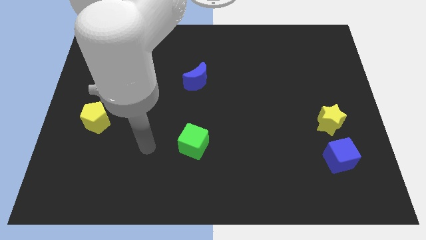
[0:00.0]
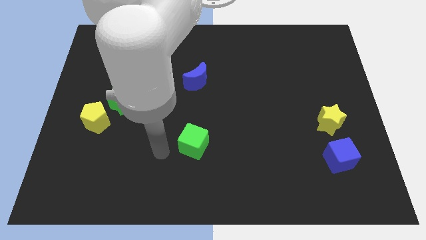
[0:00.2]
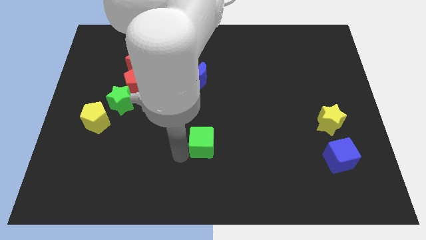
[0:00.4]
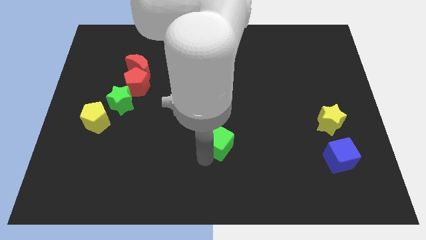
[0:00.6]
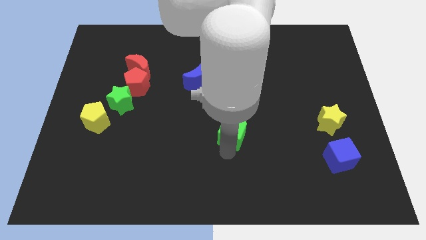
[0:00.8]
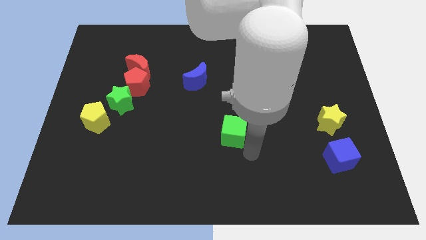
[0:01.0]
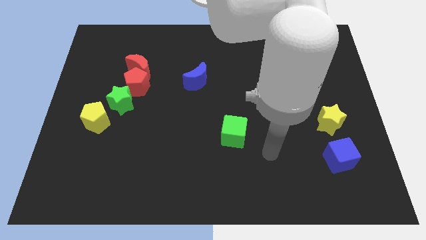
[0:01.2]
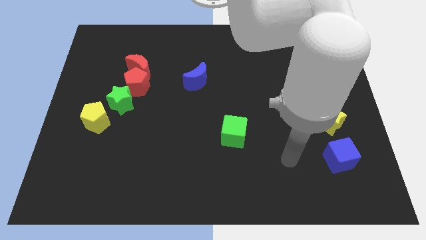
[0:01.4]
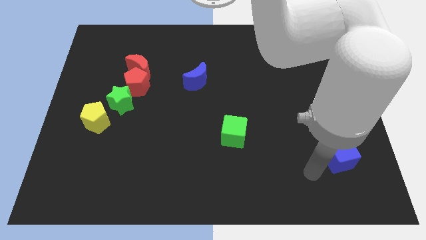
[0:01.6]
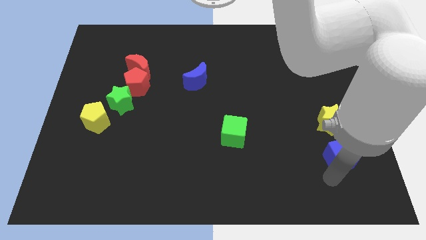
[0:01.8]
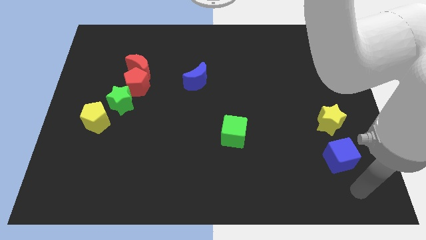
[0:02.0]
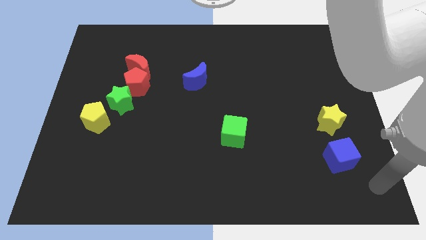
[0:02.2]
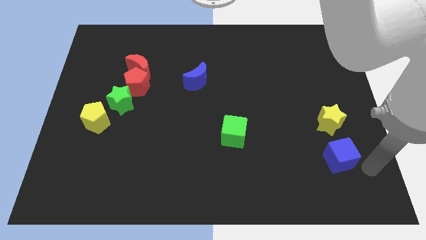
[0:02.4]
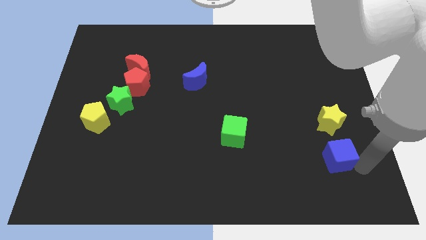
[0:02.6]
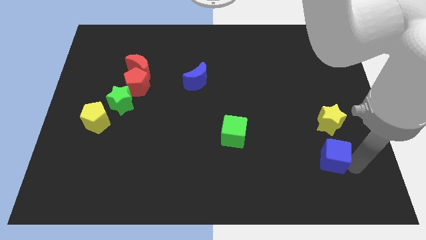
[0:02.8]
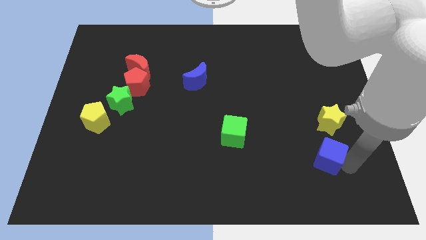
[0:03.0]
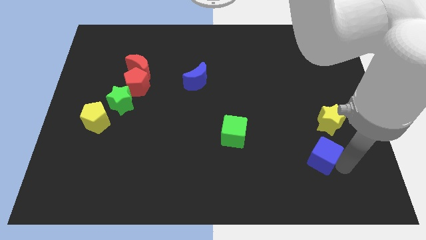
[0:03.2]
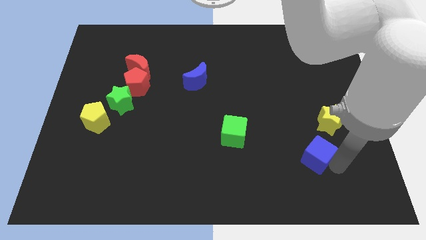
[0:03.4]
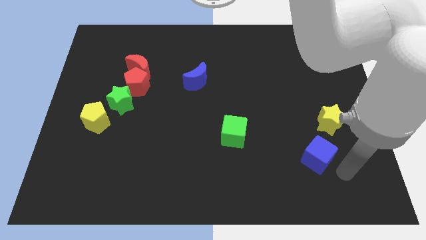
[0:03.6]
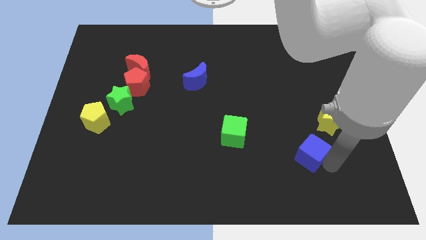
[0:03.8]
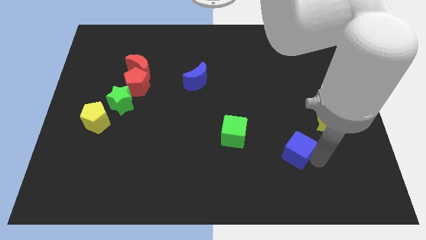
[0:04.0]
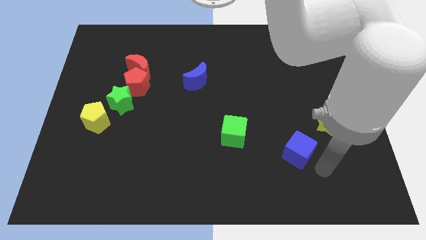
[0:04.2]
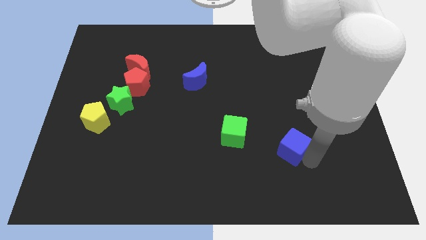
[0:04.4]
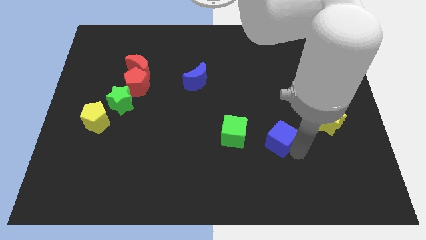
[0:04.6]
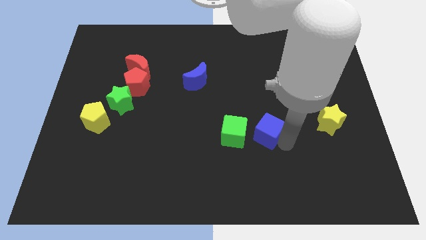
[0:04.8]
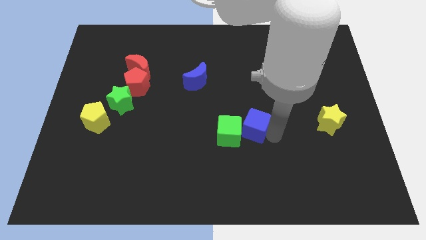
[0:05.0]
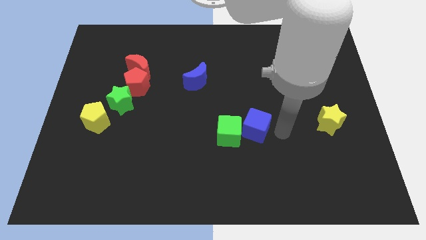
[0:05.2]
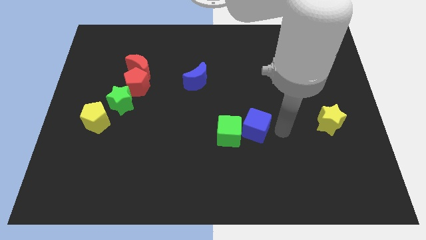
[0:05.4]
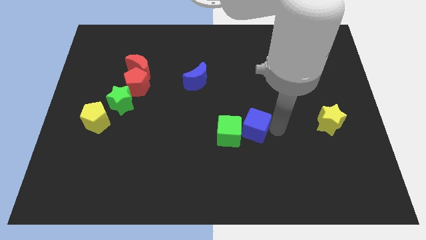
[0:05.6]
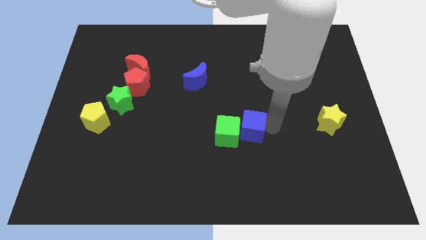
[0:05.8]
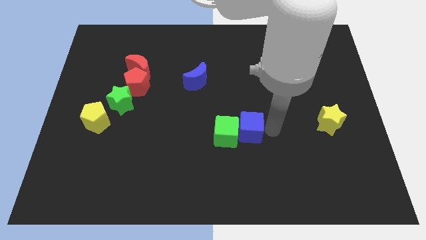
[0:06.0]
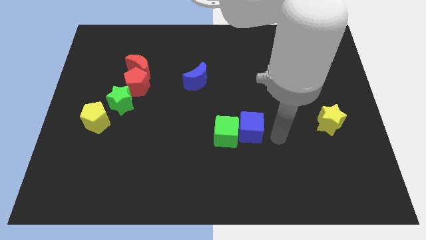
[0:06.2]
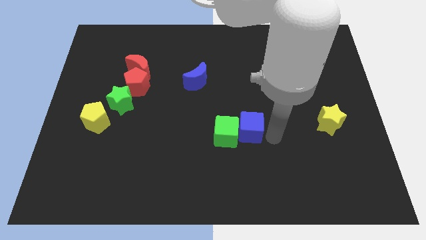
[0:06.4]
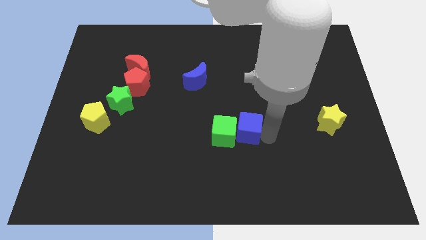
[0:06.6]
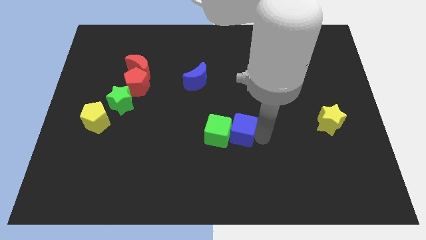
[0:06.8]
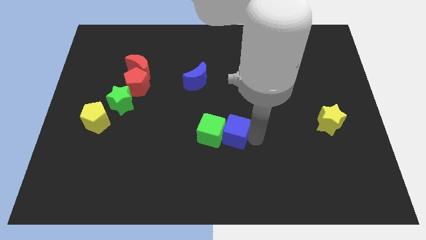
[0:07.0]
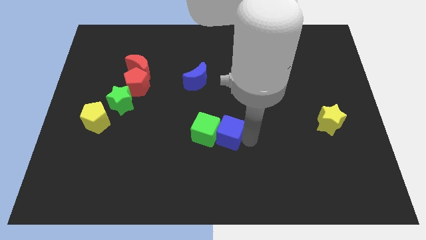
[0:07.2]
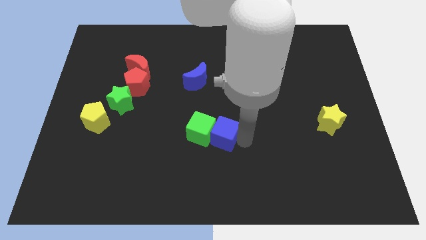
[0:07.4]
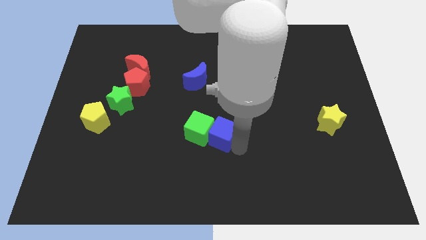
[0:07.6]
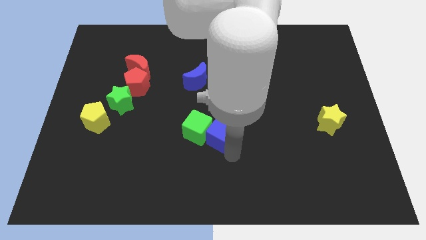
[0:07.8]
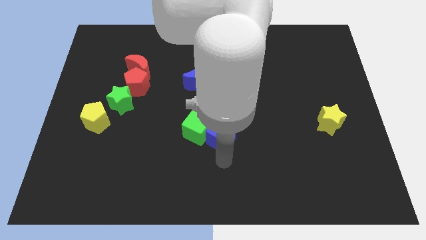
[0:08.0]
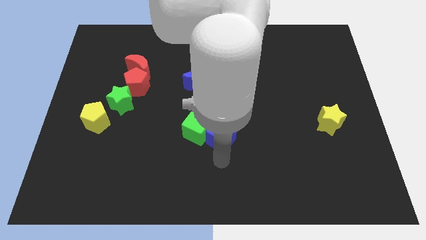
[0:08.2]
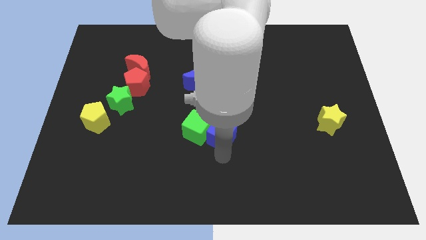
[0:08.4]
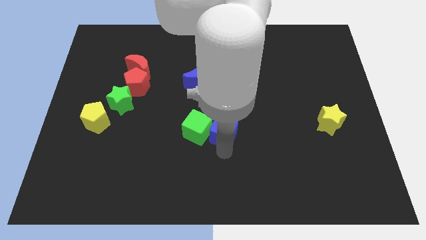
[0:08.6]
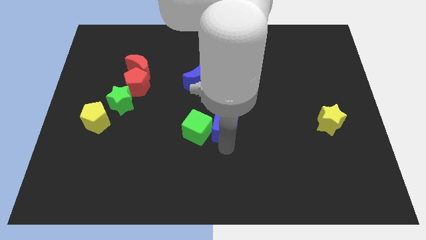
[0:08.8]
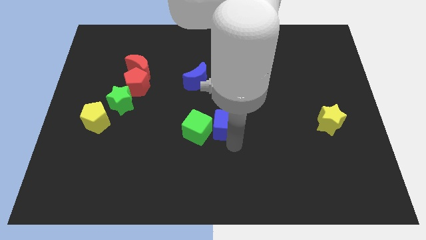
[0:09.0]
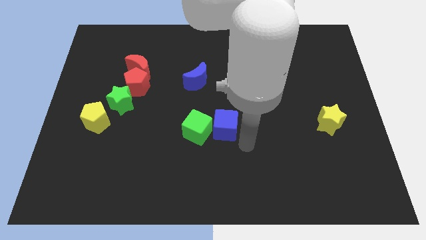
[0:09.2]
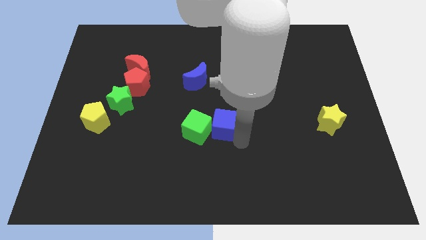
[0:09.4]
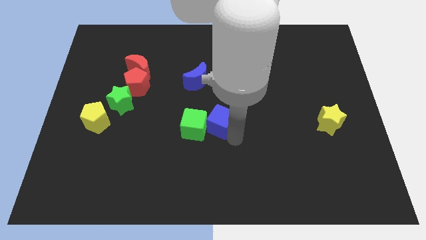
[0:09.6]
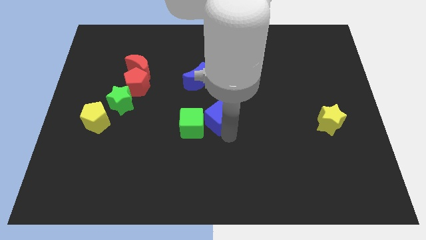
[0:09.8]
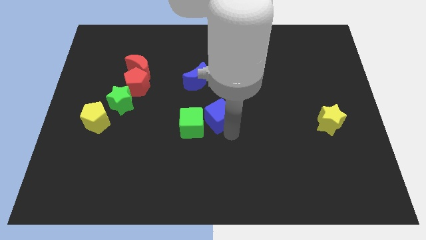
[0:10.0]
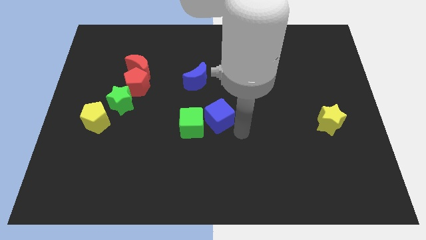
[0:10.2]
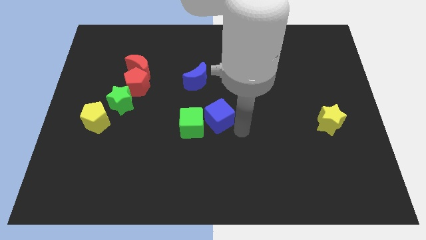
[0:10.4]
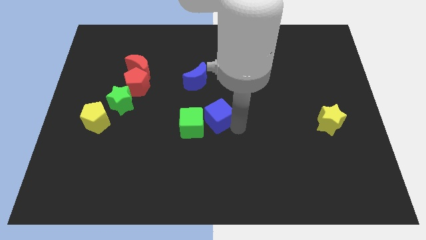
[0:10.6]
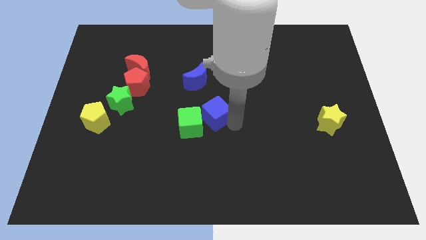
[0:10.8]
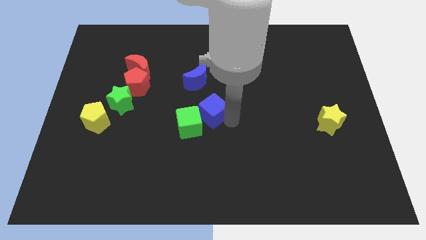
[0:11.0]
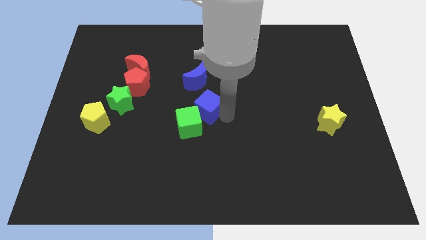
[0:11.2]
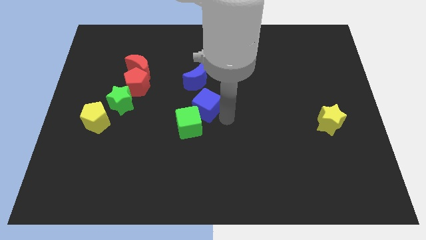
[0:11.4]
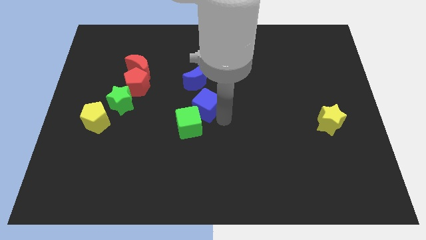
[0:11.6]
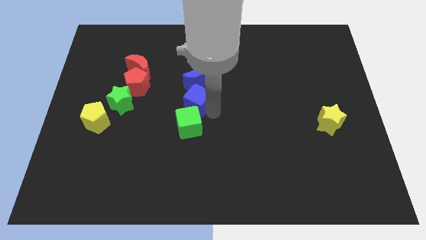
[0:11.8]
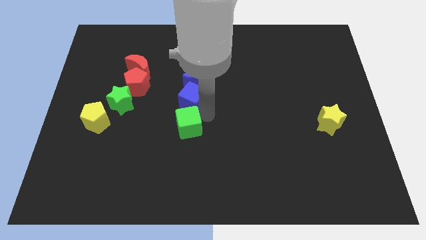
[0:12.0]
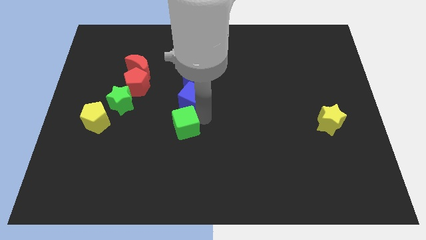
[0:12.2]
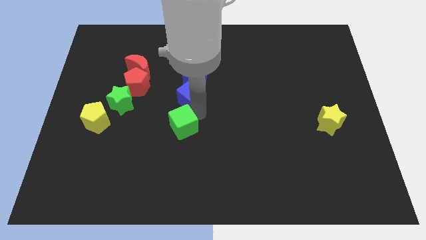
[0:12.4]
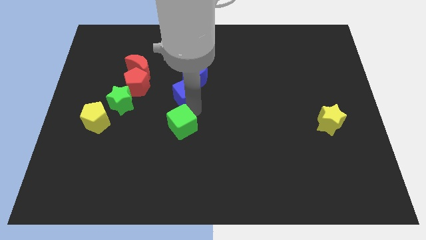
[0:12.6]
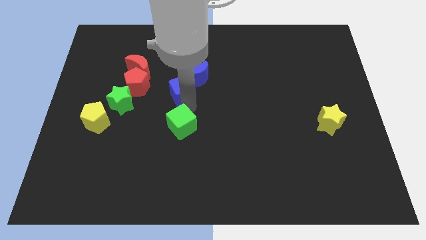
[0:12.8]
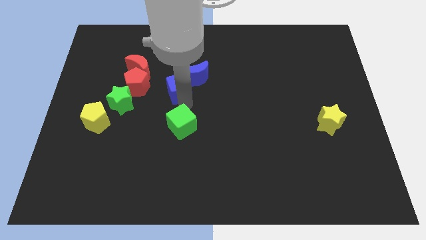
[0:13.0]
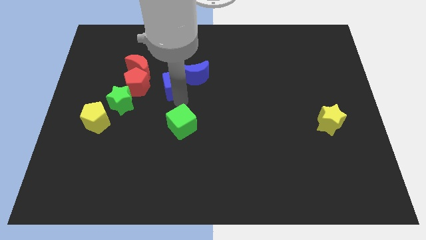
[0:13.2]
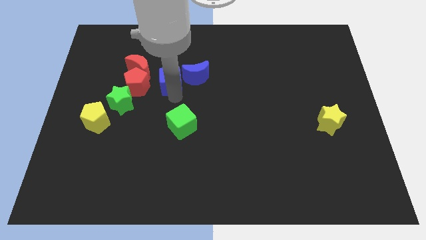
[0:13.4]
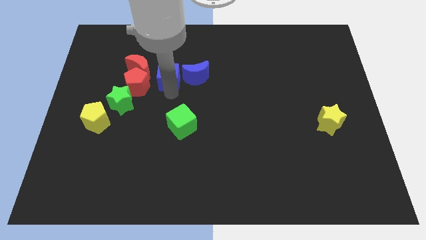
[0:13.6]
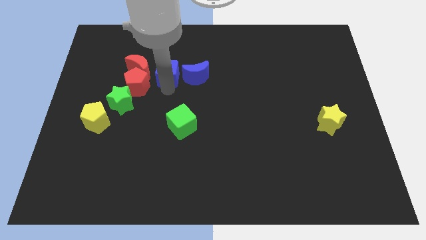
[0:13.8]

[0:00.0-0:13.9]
put the blue cube to the top left side of the blue moon

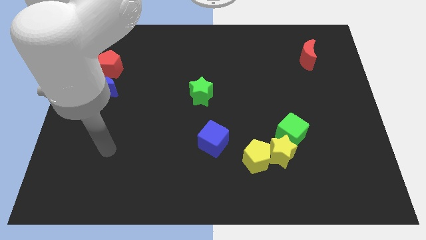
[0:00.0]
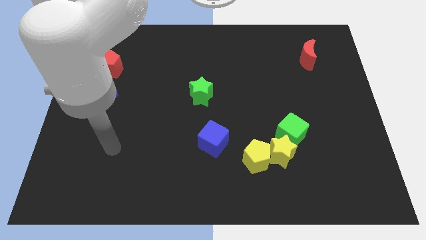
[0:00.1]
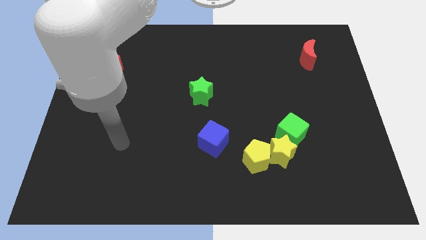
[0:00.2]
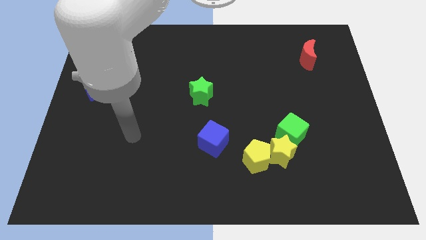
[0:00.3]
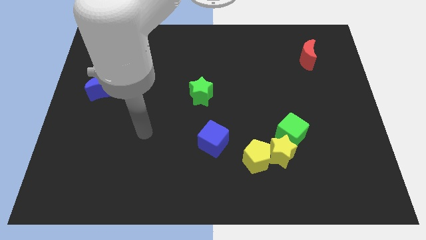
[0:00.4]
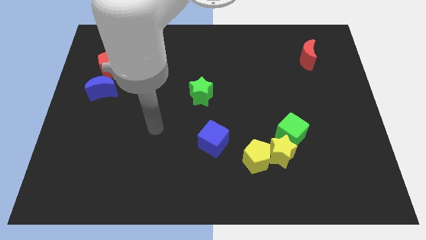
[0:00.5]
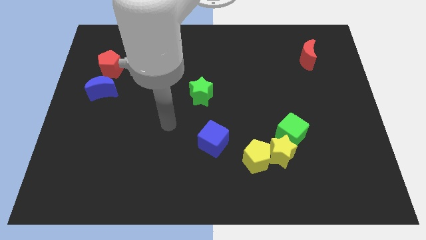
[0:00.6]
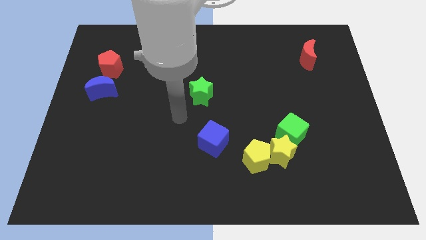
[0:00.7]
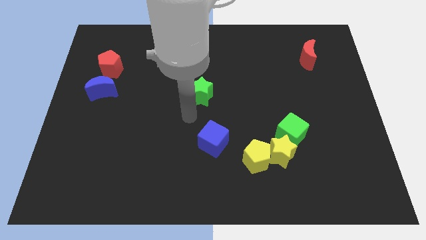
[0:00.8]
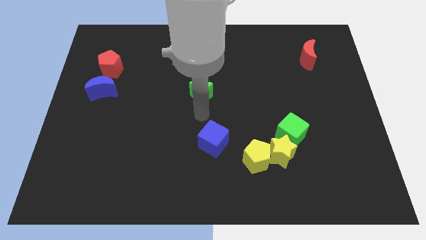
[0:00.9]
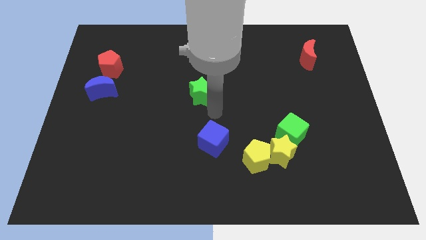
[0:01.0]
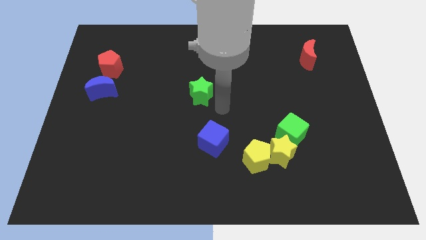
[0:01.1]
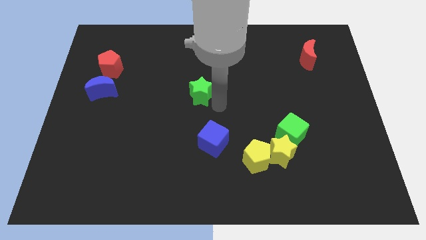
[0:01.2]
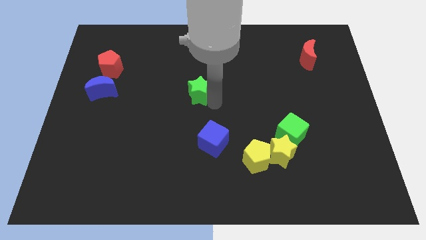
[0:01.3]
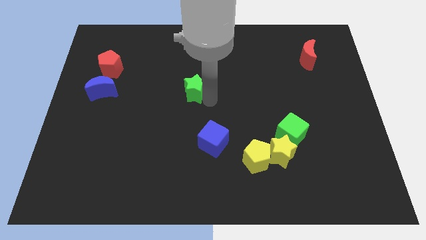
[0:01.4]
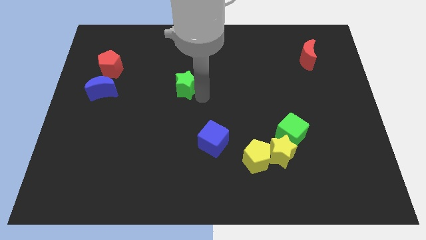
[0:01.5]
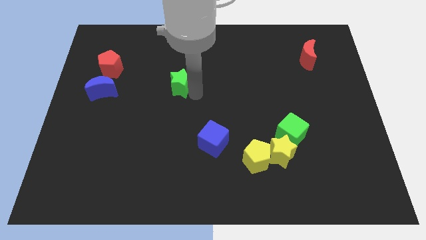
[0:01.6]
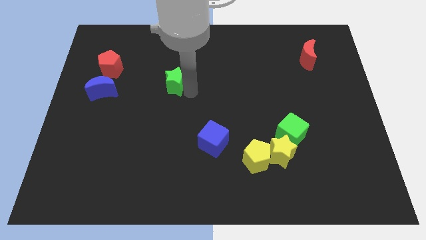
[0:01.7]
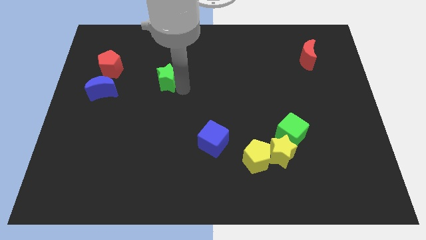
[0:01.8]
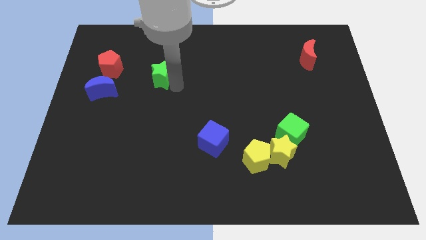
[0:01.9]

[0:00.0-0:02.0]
push the green star to the right of the red pentagon
